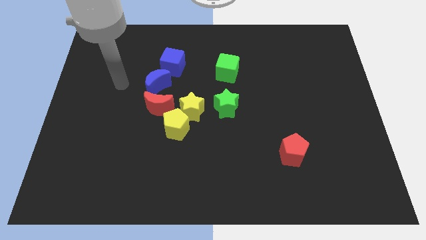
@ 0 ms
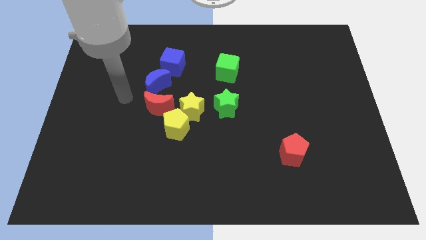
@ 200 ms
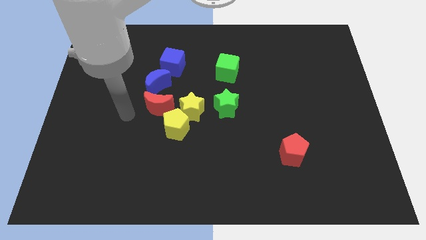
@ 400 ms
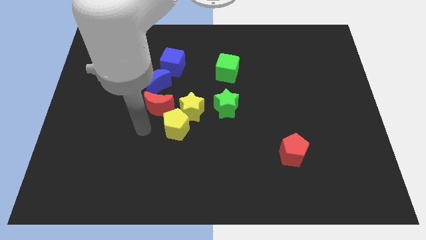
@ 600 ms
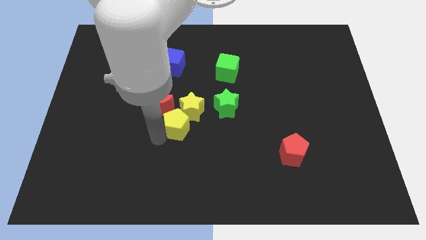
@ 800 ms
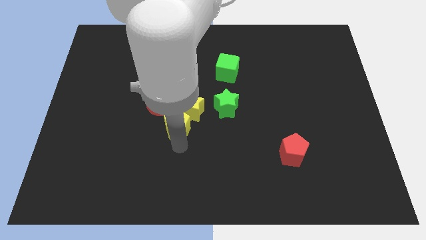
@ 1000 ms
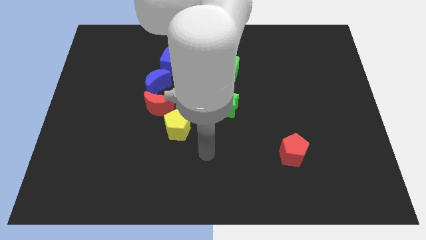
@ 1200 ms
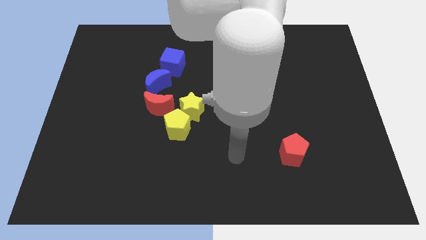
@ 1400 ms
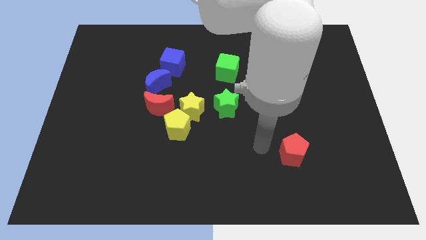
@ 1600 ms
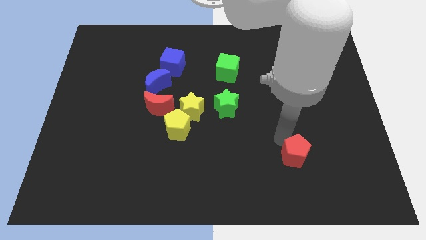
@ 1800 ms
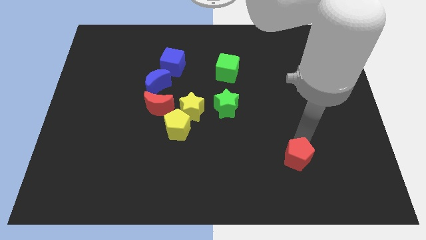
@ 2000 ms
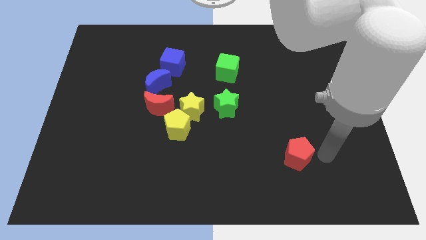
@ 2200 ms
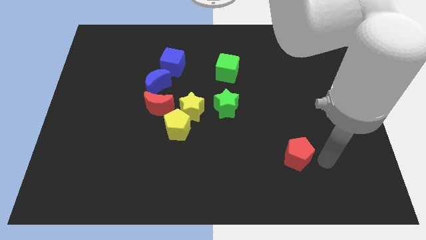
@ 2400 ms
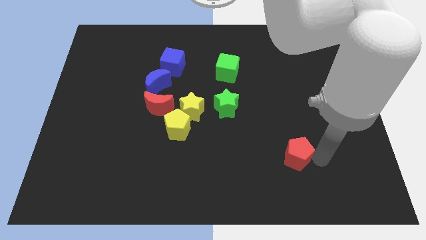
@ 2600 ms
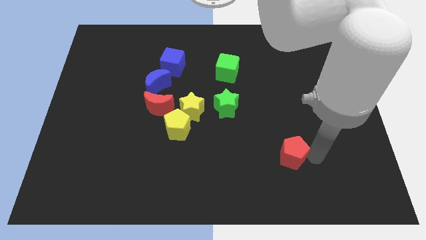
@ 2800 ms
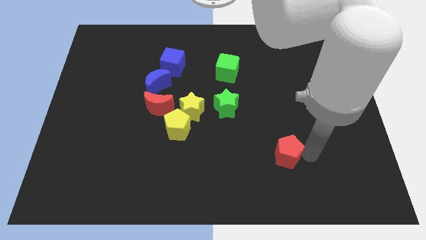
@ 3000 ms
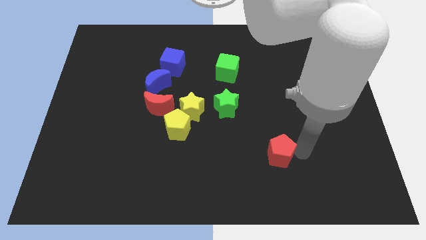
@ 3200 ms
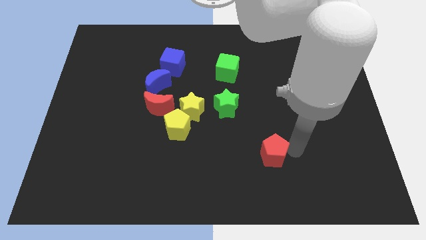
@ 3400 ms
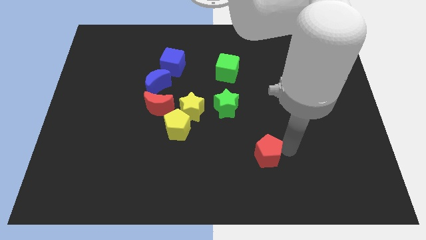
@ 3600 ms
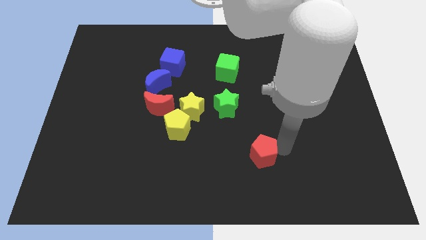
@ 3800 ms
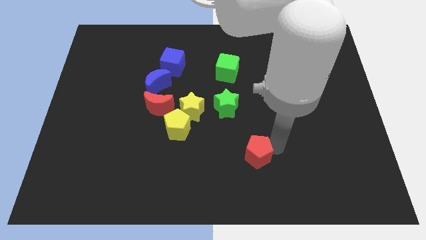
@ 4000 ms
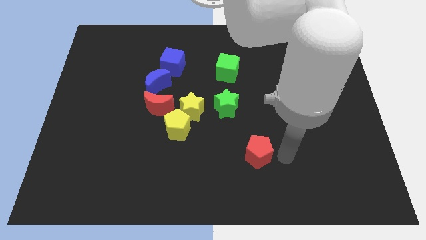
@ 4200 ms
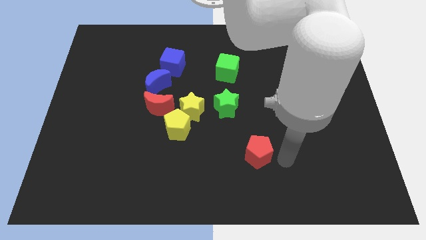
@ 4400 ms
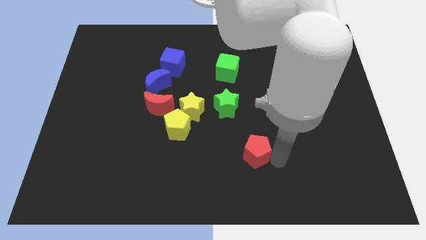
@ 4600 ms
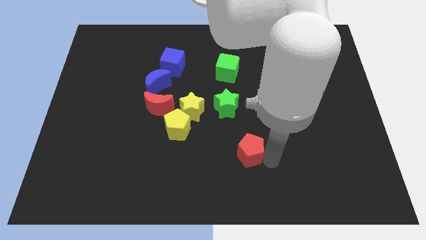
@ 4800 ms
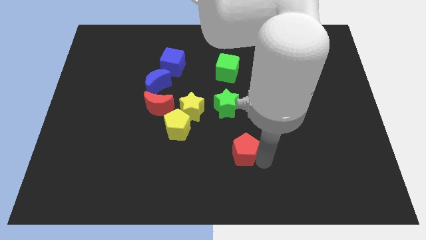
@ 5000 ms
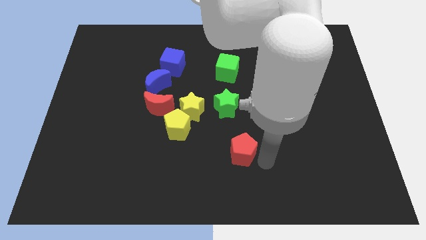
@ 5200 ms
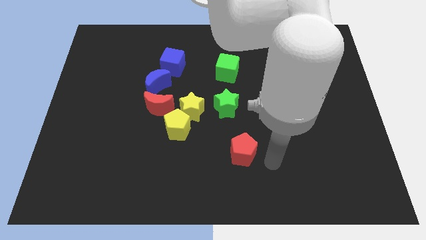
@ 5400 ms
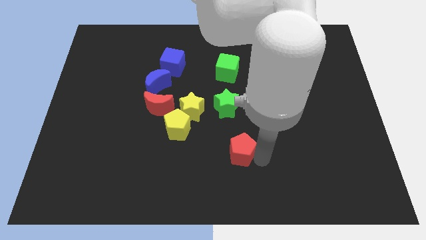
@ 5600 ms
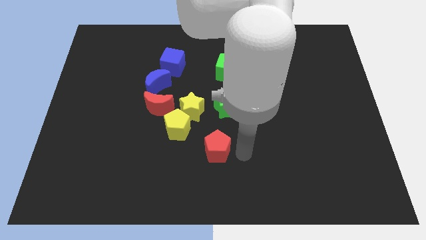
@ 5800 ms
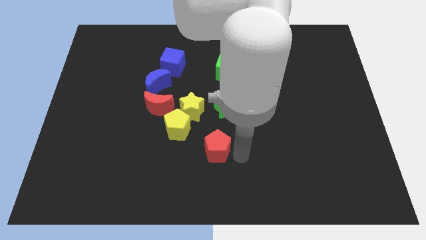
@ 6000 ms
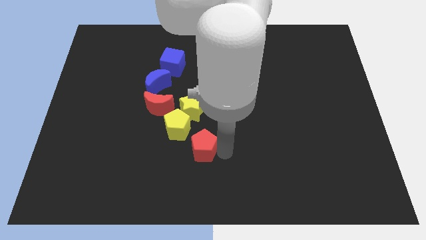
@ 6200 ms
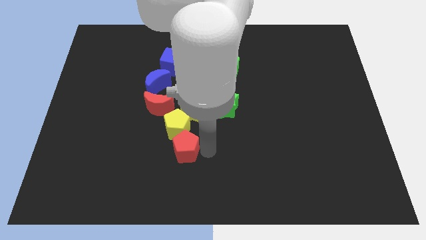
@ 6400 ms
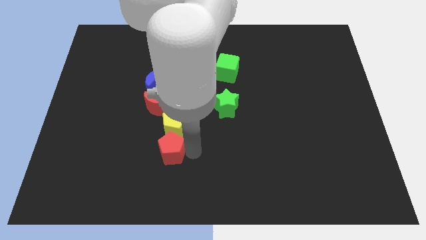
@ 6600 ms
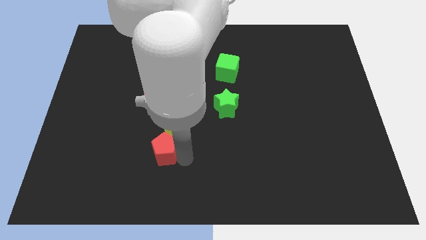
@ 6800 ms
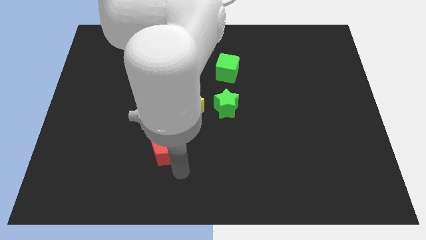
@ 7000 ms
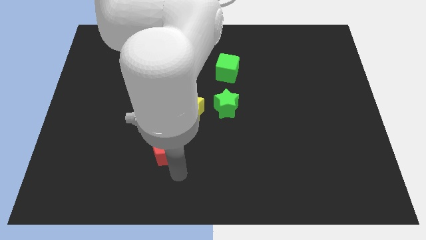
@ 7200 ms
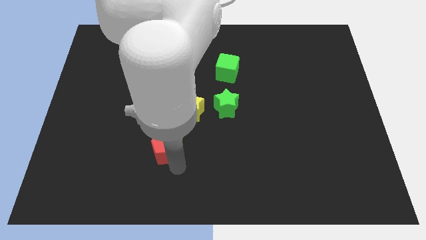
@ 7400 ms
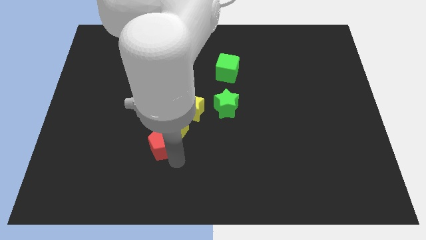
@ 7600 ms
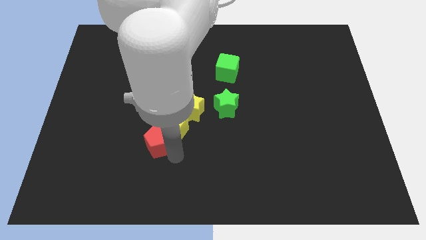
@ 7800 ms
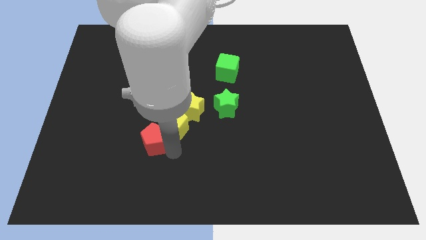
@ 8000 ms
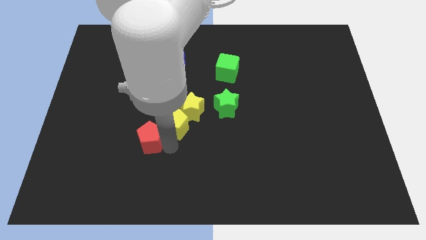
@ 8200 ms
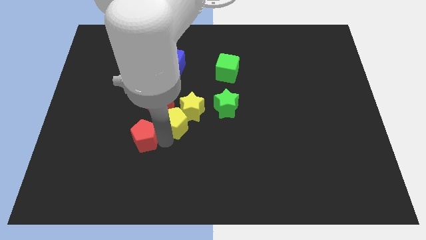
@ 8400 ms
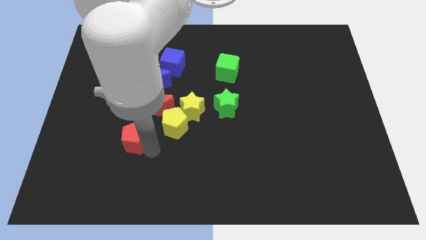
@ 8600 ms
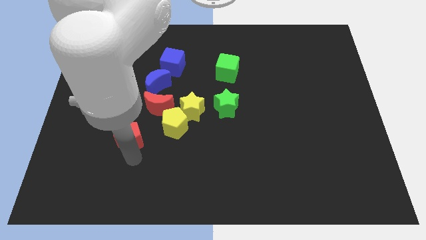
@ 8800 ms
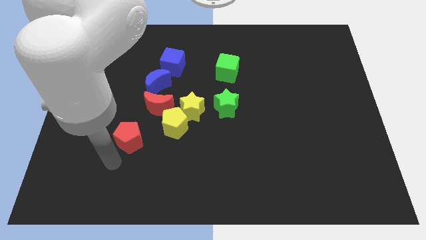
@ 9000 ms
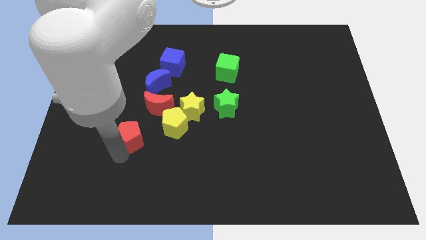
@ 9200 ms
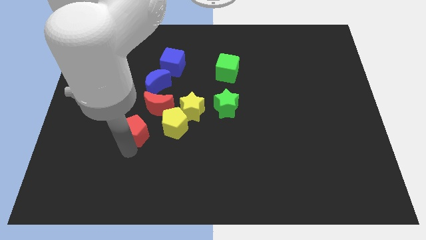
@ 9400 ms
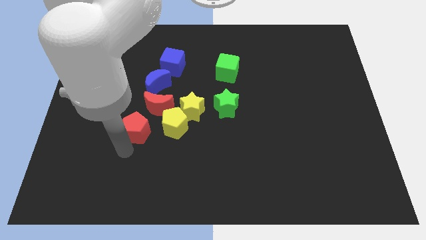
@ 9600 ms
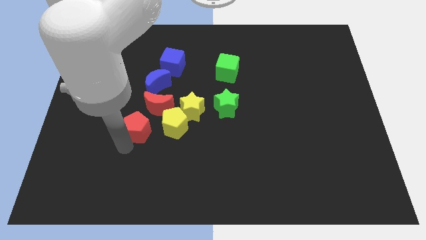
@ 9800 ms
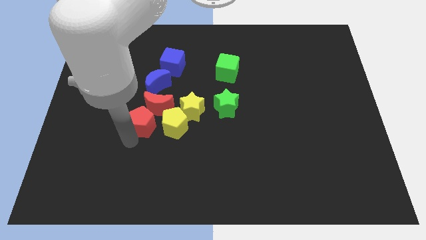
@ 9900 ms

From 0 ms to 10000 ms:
put the red pentagon next to the red moon

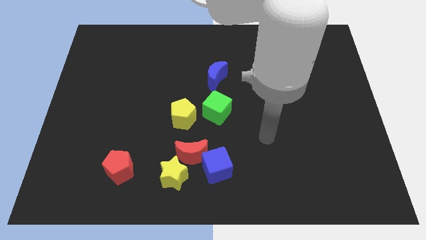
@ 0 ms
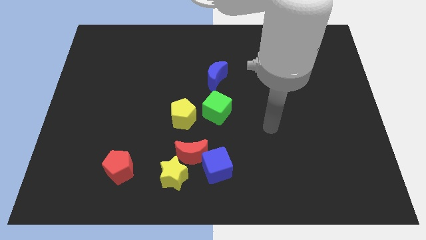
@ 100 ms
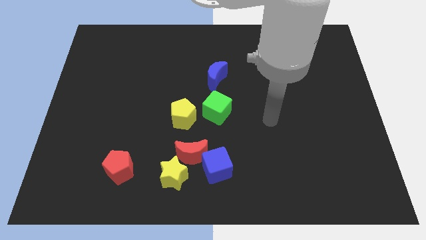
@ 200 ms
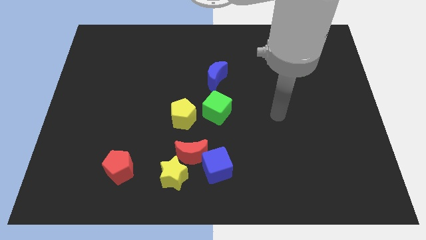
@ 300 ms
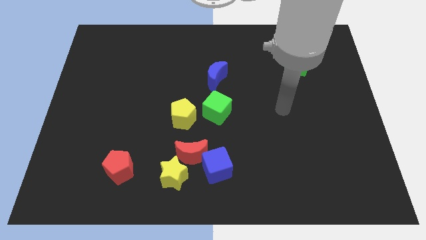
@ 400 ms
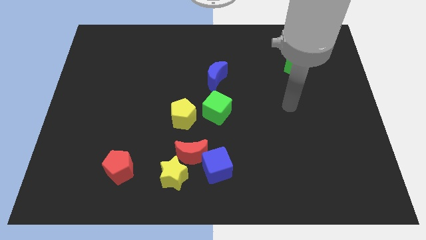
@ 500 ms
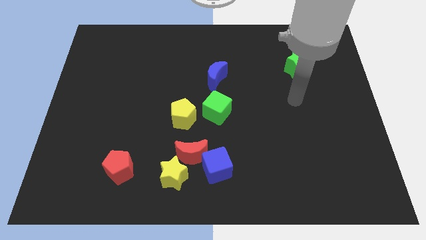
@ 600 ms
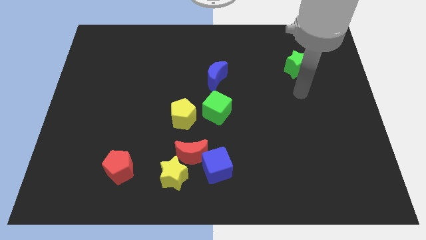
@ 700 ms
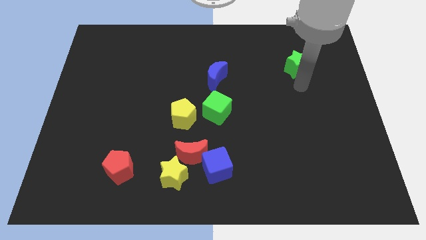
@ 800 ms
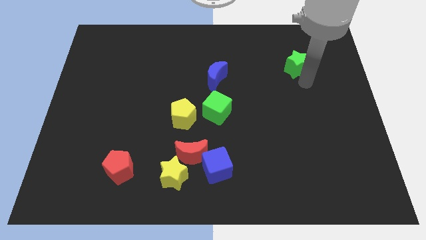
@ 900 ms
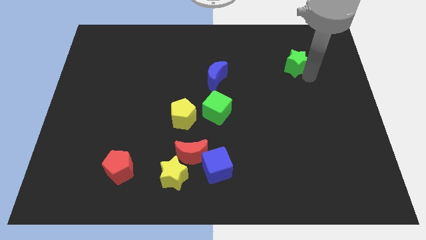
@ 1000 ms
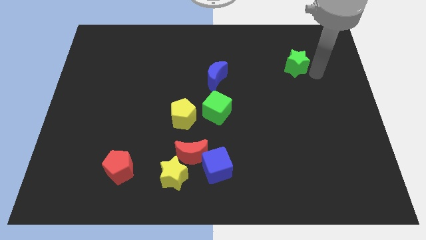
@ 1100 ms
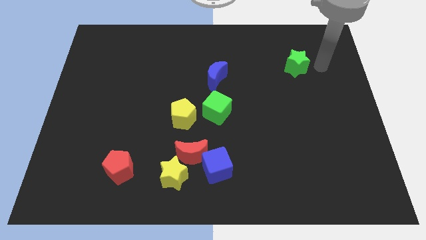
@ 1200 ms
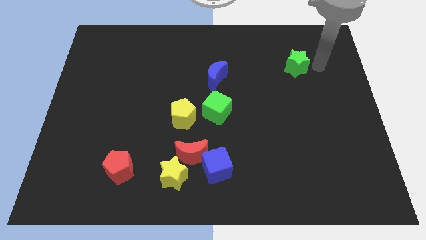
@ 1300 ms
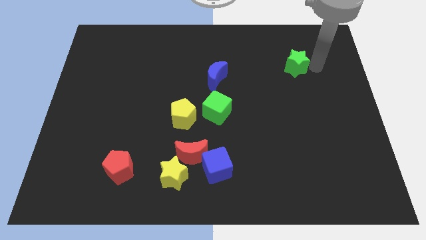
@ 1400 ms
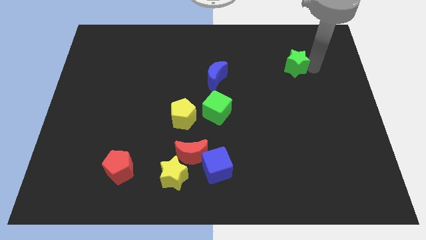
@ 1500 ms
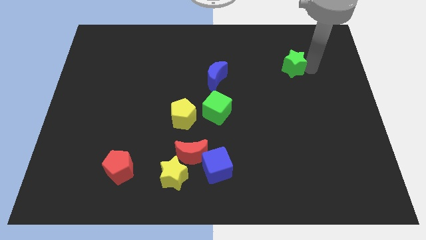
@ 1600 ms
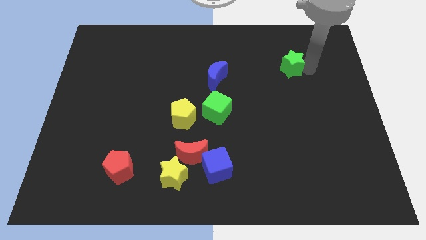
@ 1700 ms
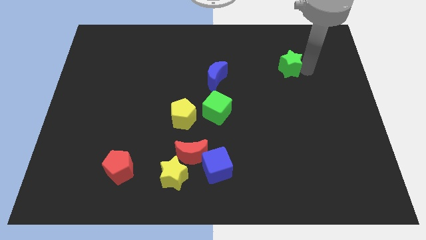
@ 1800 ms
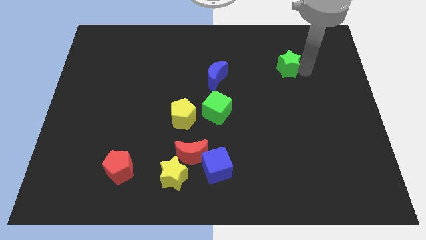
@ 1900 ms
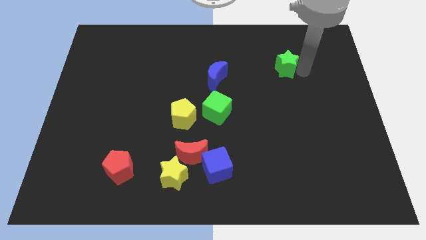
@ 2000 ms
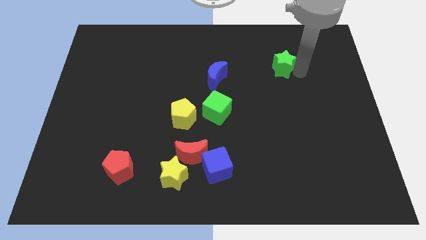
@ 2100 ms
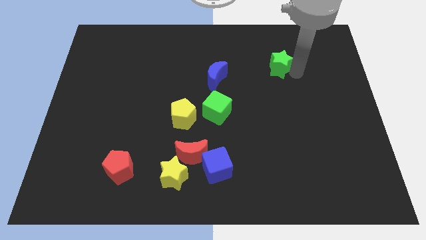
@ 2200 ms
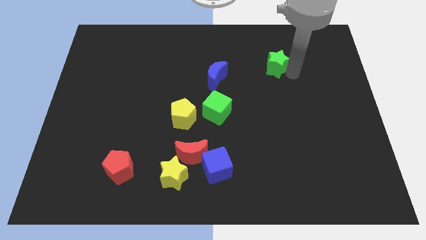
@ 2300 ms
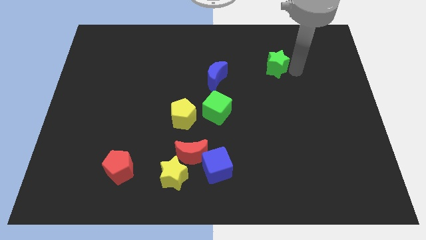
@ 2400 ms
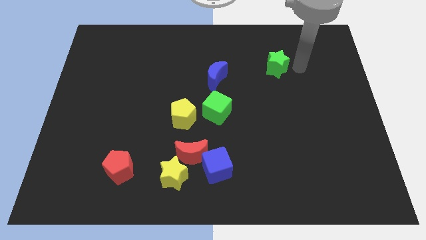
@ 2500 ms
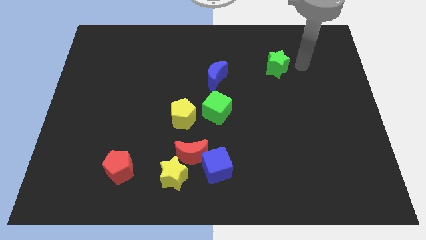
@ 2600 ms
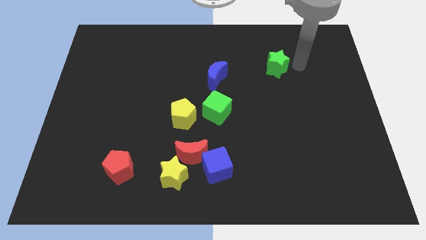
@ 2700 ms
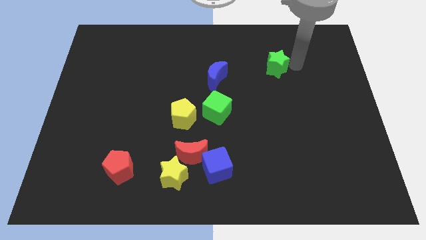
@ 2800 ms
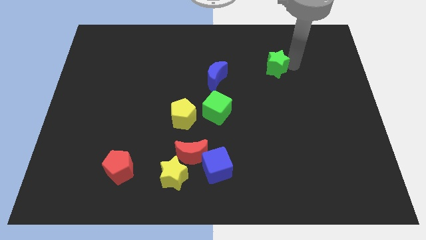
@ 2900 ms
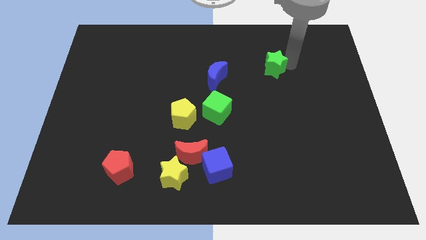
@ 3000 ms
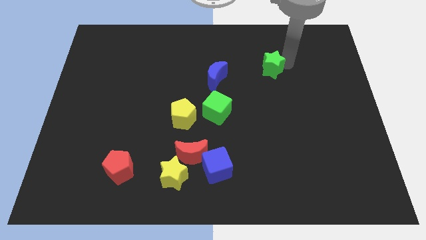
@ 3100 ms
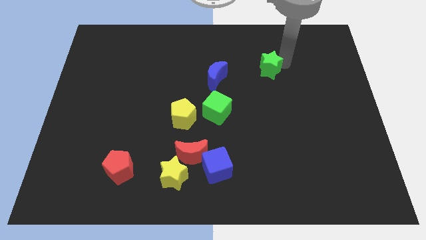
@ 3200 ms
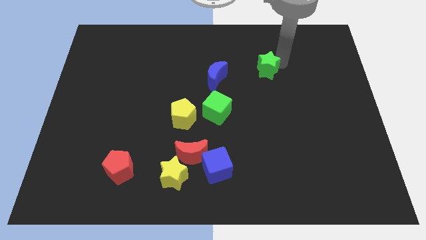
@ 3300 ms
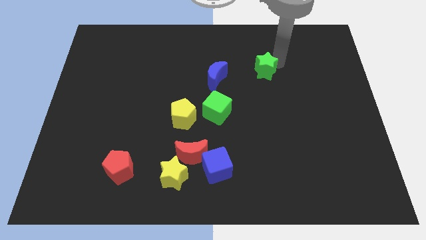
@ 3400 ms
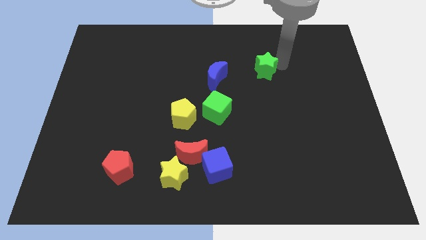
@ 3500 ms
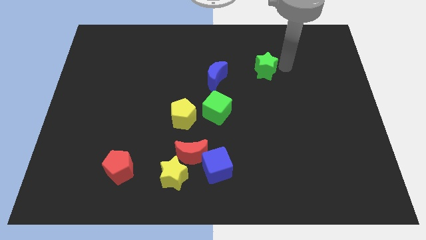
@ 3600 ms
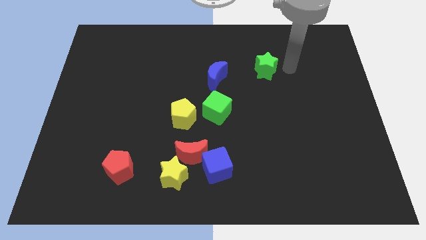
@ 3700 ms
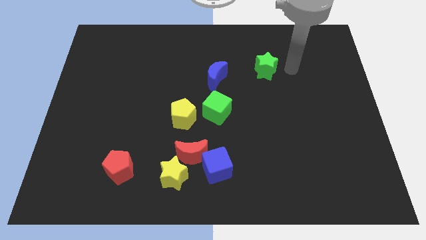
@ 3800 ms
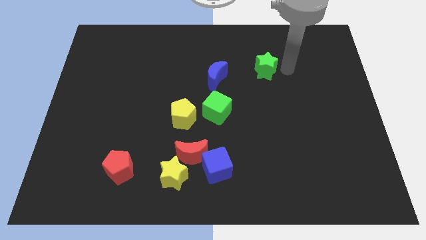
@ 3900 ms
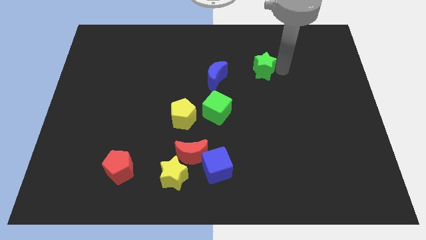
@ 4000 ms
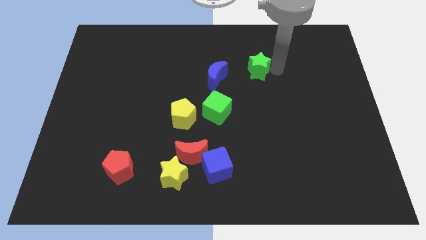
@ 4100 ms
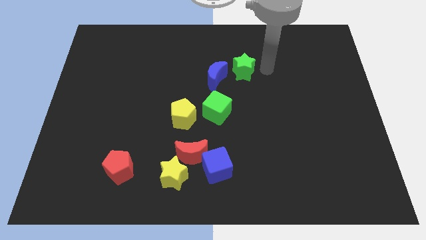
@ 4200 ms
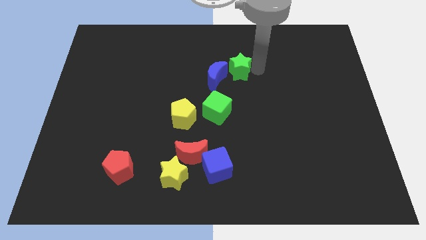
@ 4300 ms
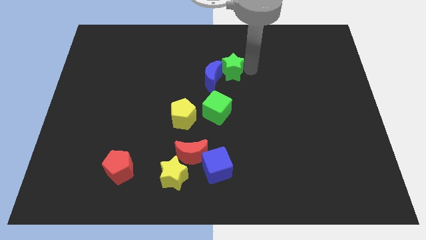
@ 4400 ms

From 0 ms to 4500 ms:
move the green star towards the blue moon
